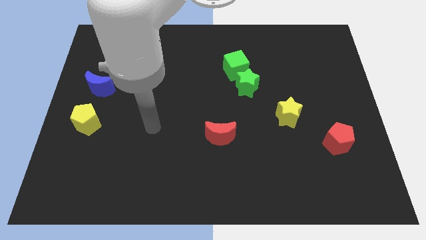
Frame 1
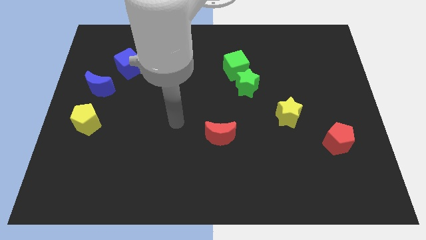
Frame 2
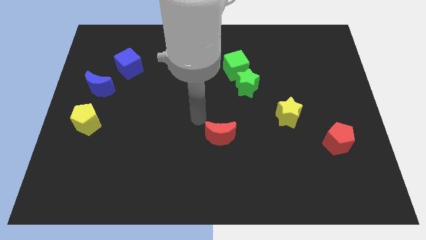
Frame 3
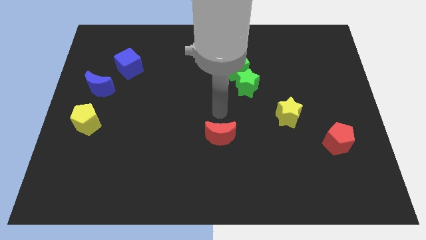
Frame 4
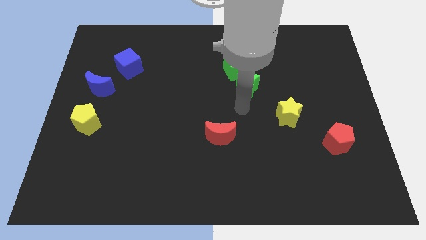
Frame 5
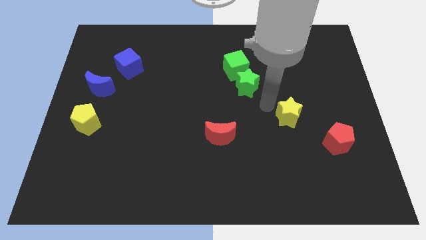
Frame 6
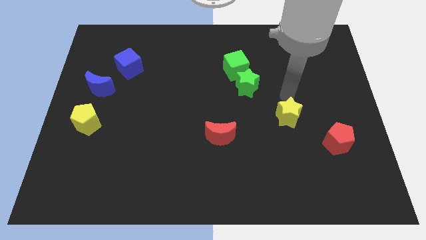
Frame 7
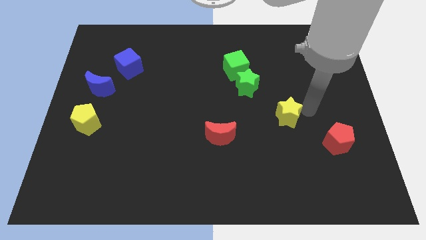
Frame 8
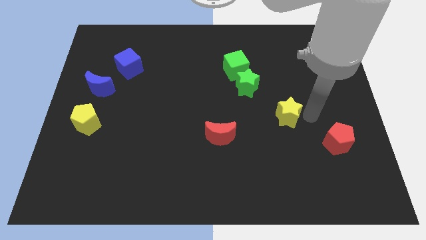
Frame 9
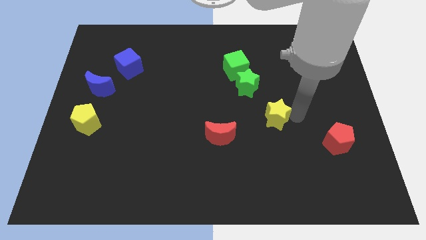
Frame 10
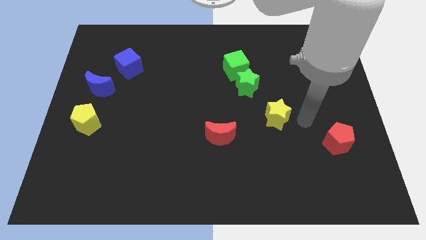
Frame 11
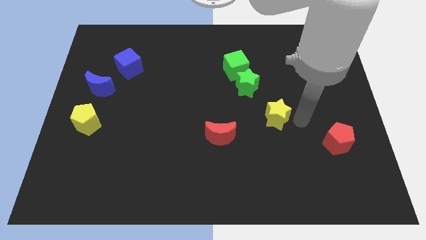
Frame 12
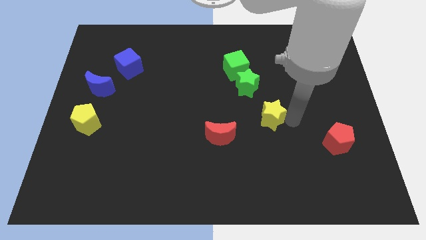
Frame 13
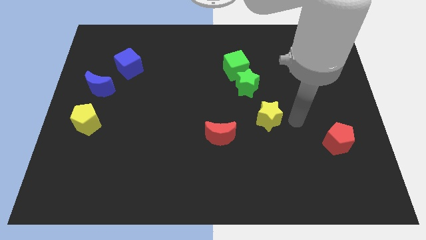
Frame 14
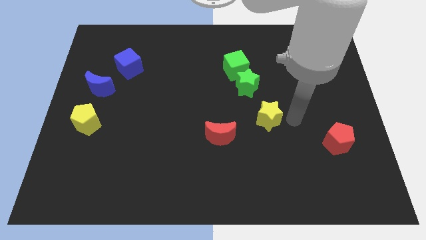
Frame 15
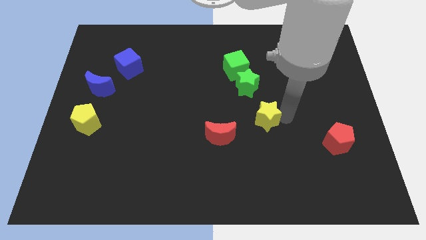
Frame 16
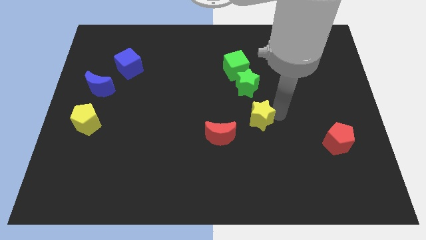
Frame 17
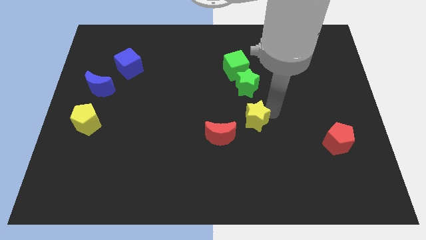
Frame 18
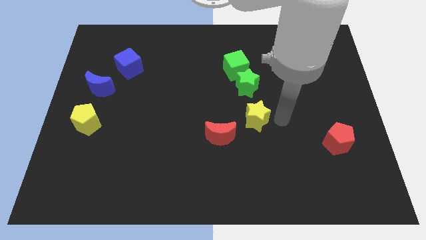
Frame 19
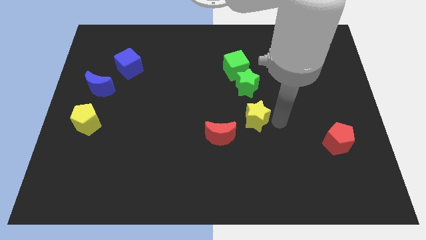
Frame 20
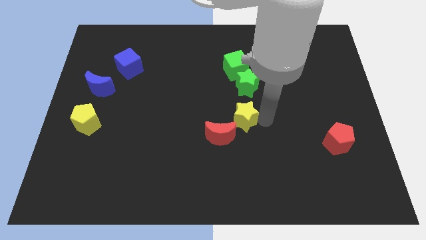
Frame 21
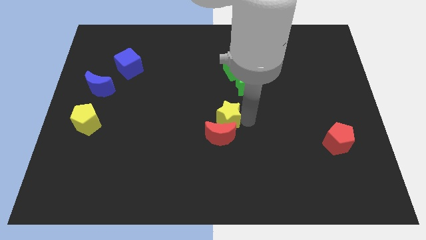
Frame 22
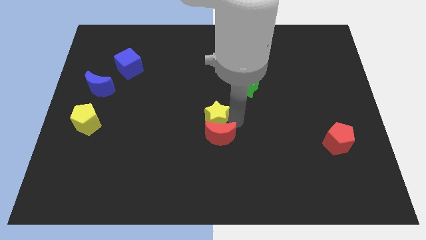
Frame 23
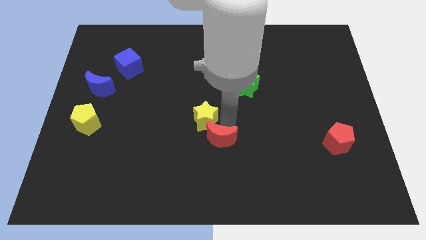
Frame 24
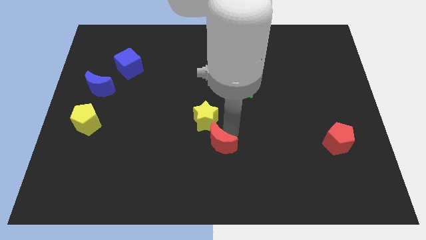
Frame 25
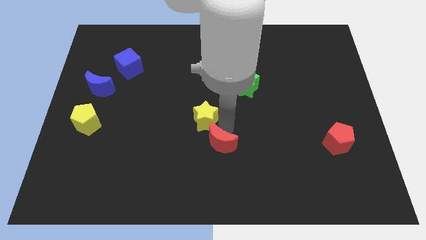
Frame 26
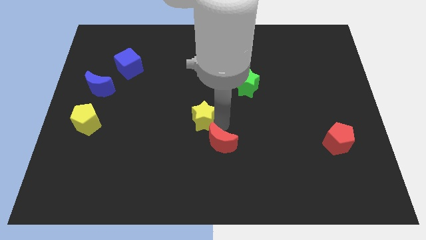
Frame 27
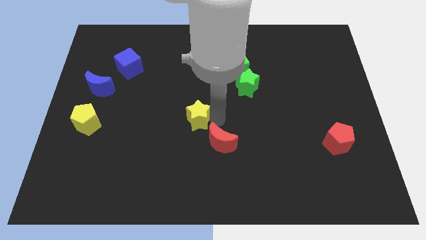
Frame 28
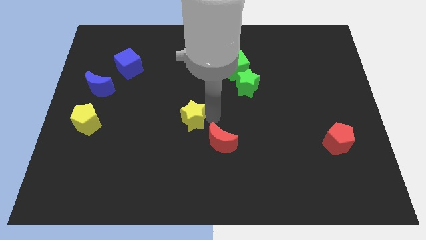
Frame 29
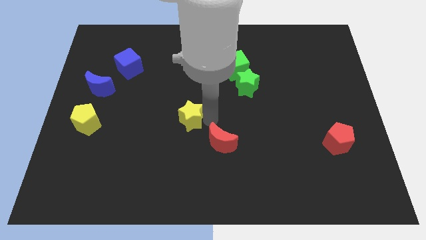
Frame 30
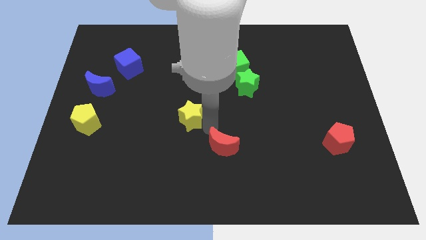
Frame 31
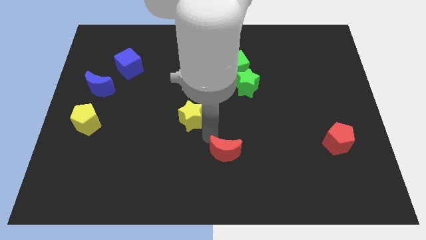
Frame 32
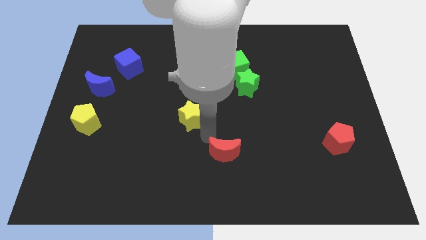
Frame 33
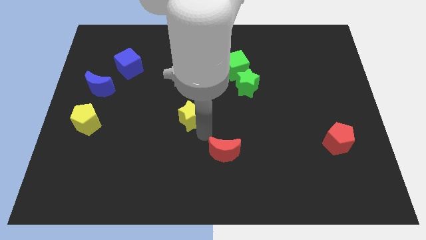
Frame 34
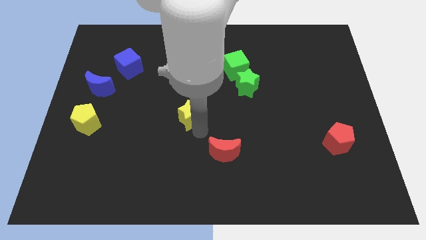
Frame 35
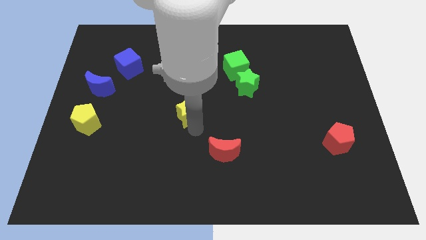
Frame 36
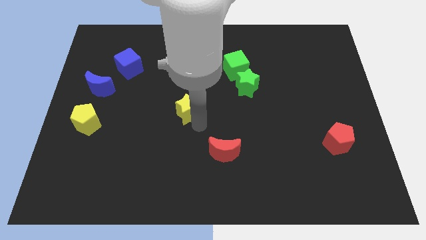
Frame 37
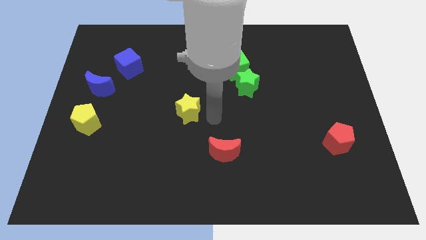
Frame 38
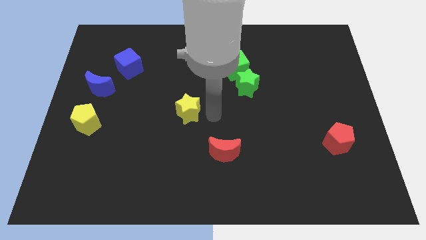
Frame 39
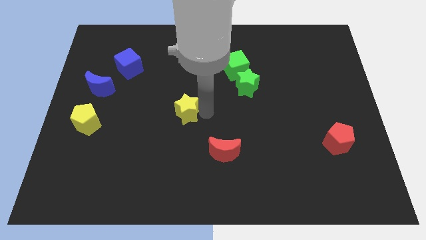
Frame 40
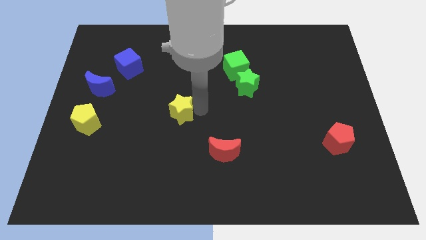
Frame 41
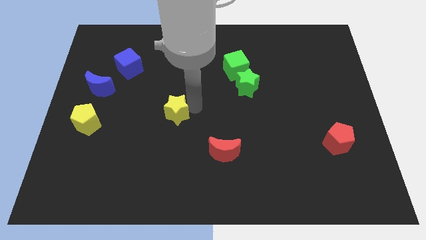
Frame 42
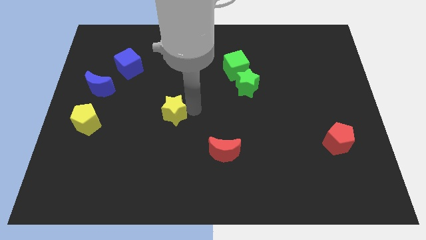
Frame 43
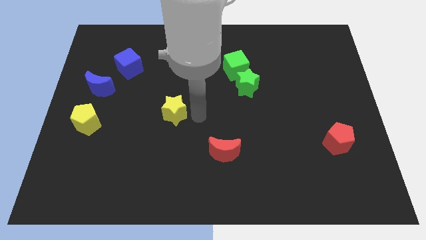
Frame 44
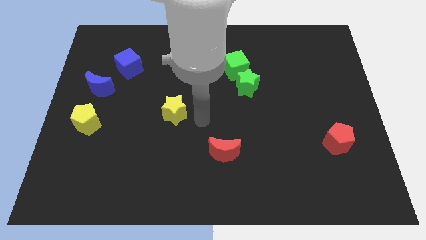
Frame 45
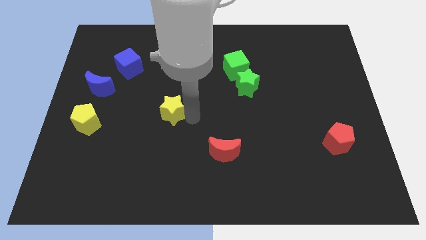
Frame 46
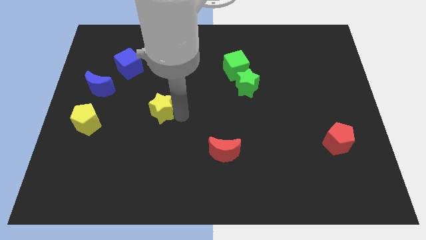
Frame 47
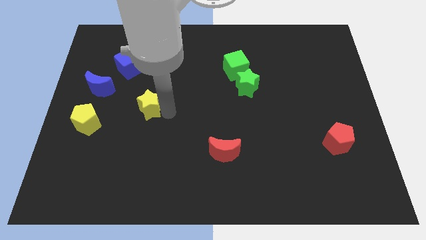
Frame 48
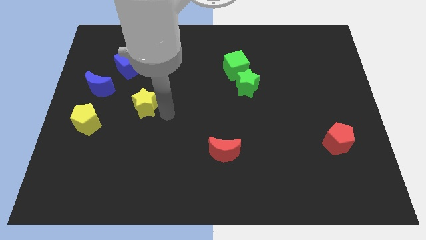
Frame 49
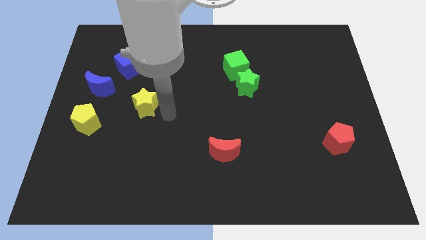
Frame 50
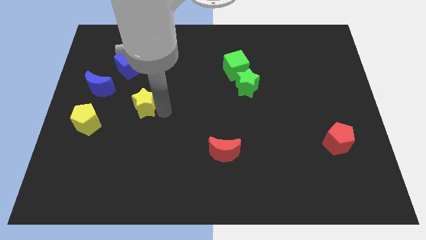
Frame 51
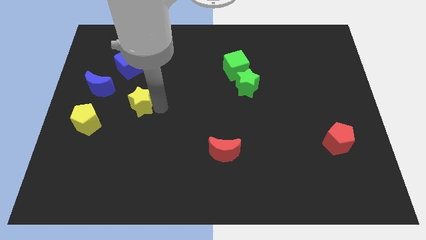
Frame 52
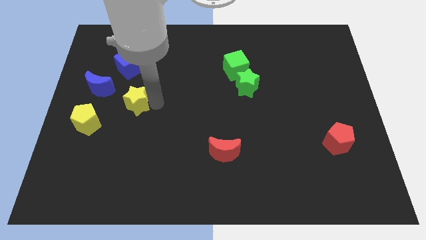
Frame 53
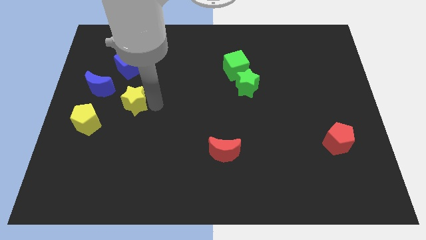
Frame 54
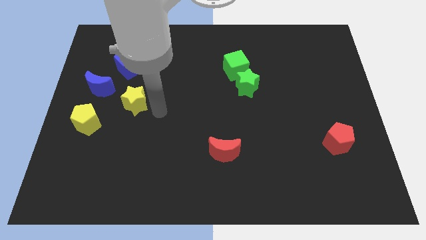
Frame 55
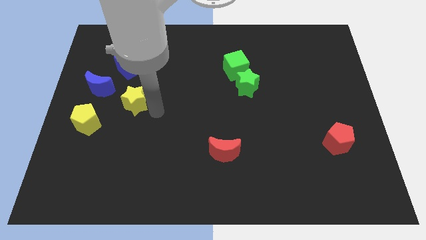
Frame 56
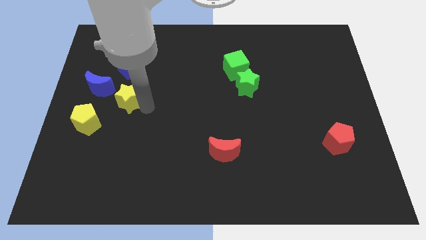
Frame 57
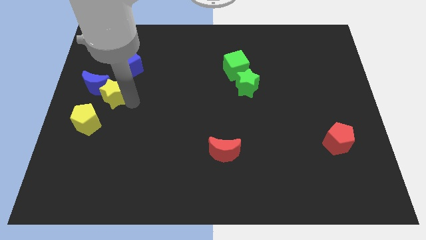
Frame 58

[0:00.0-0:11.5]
put the yellow star next to the blue moon

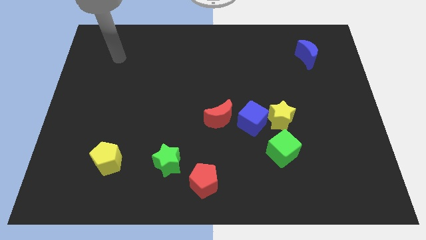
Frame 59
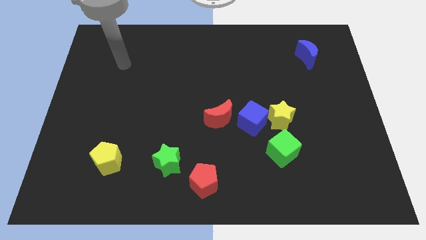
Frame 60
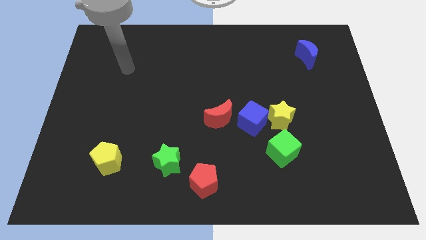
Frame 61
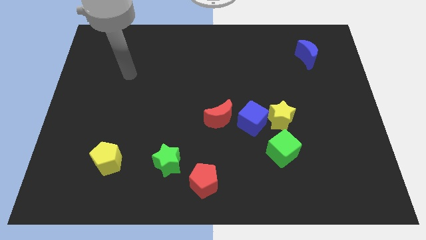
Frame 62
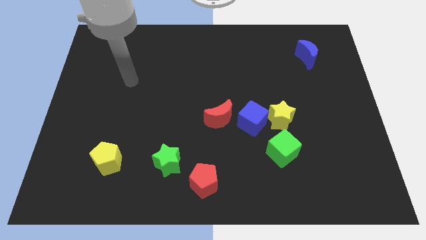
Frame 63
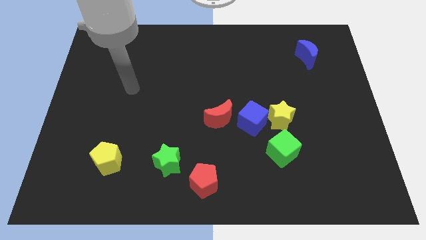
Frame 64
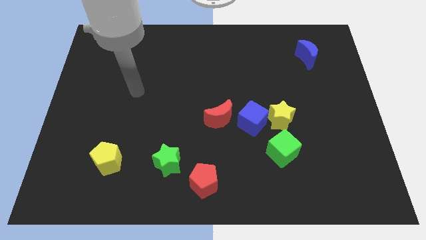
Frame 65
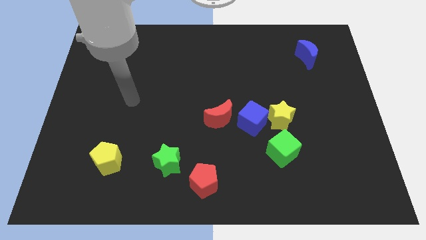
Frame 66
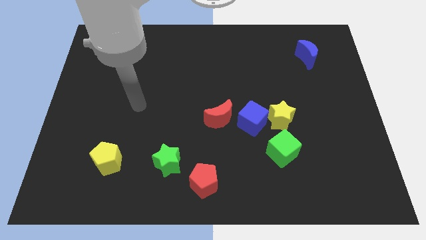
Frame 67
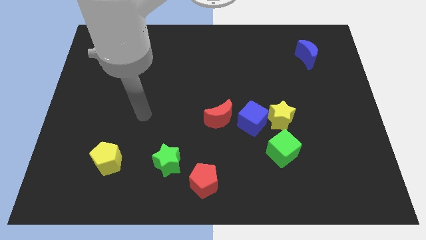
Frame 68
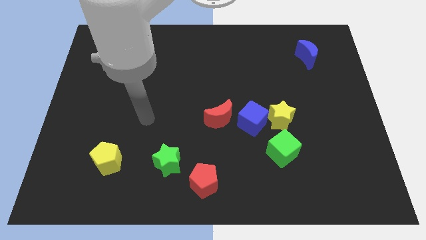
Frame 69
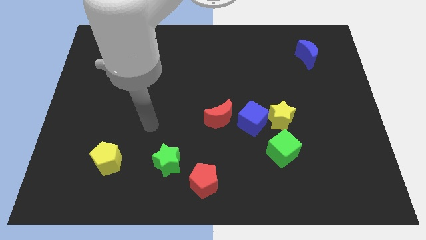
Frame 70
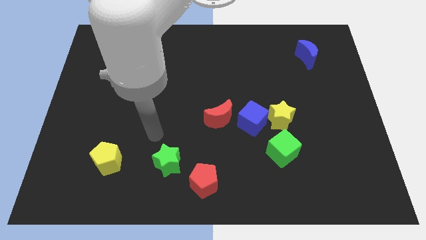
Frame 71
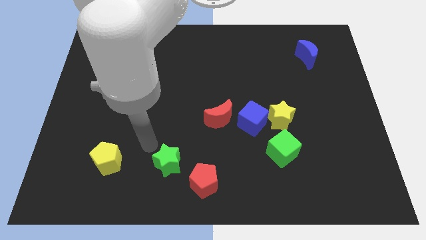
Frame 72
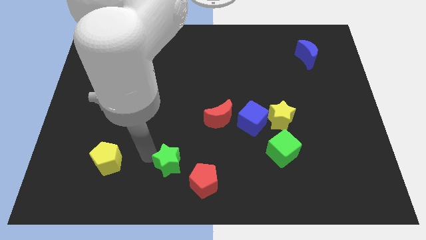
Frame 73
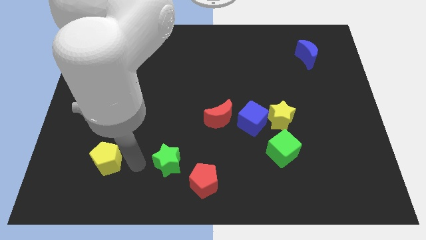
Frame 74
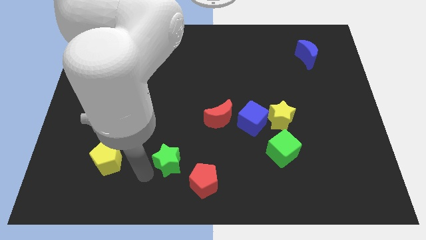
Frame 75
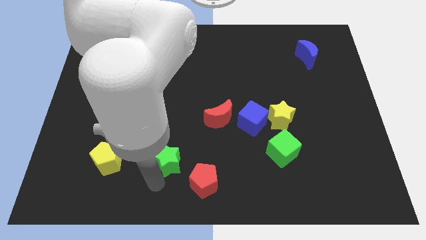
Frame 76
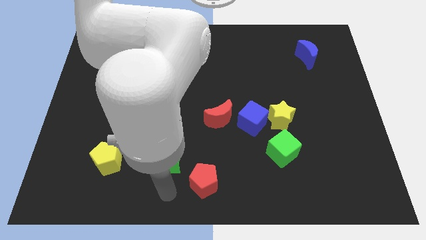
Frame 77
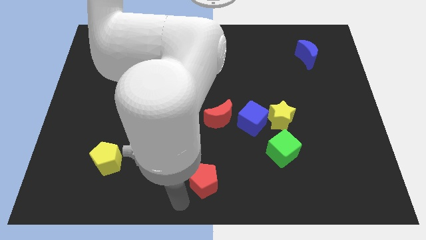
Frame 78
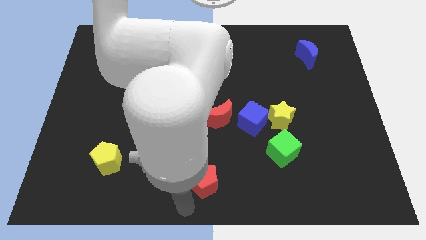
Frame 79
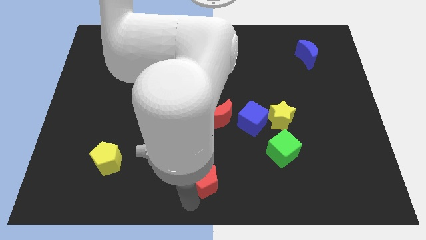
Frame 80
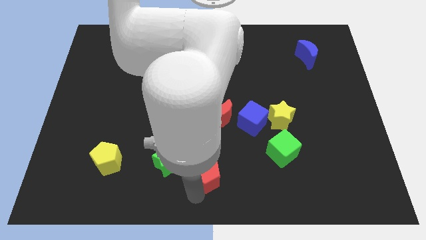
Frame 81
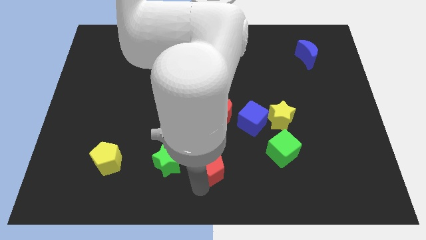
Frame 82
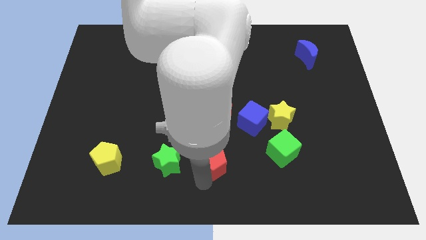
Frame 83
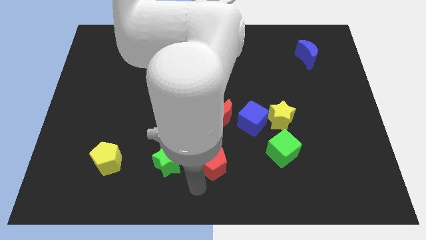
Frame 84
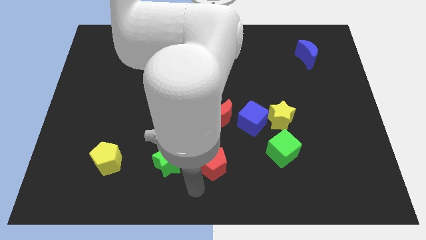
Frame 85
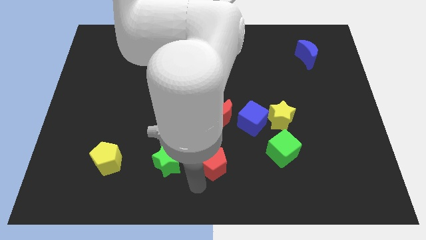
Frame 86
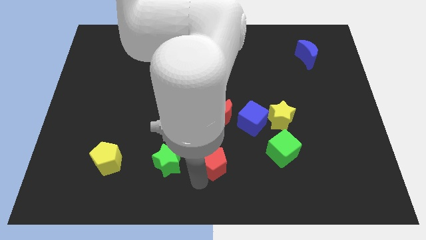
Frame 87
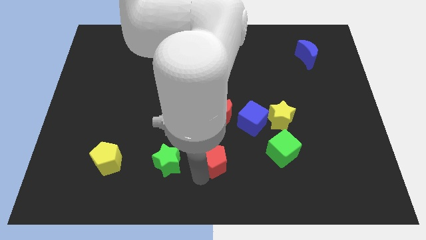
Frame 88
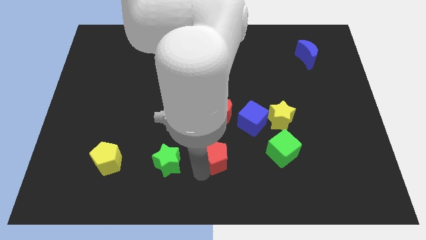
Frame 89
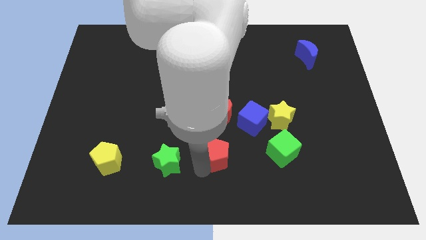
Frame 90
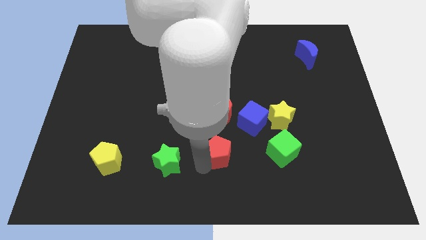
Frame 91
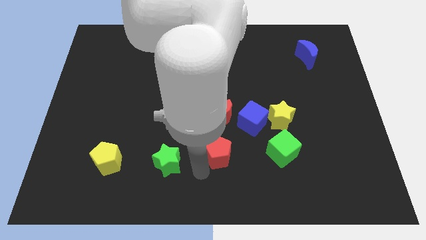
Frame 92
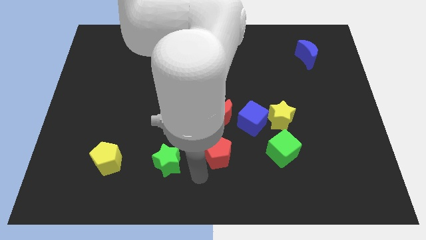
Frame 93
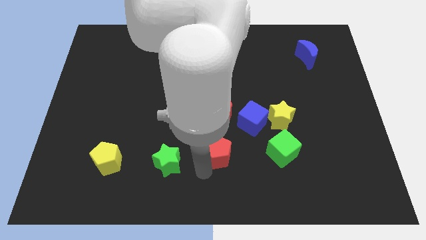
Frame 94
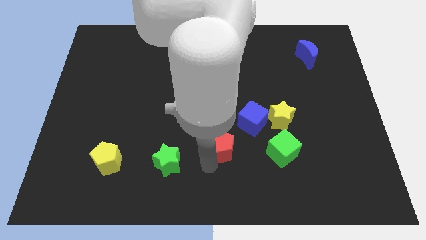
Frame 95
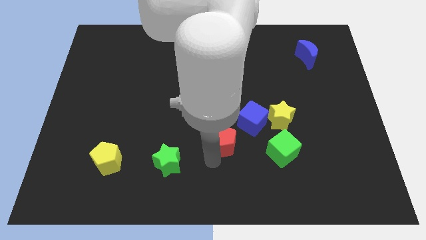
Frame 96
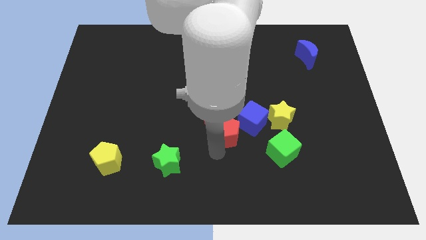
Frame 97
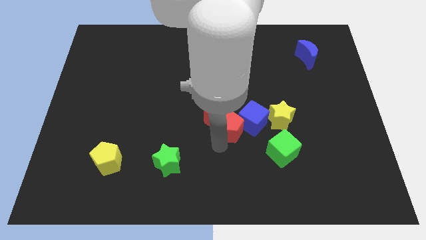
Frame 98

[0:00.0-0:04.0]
slide the red pentagon close to the blue cube
